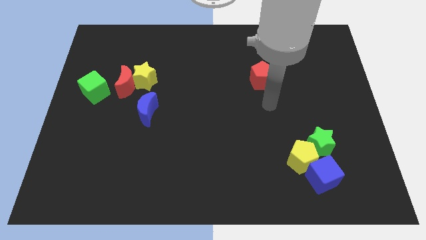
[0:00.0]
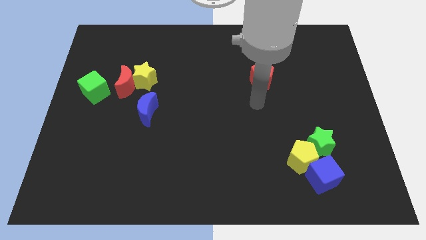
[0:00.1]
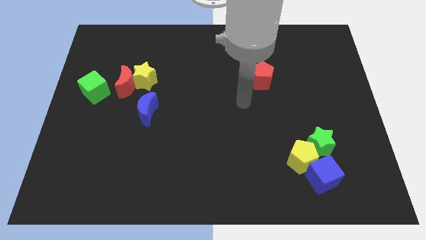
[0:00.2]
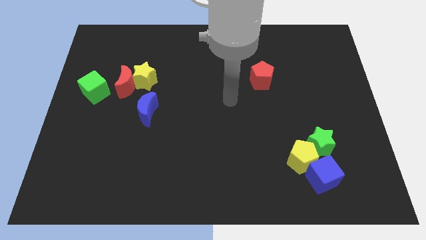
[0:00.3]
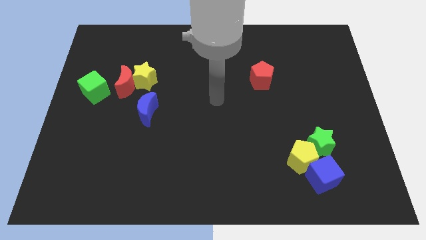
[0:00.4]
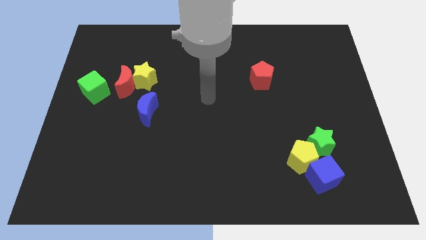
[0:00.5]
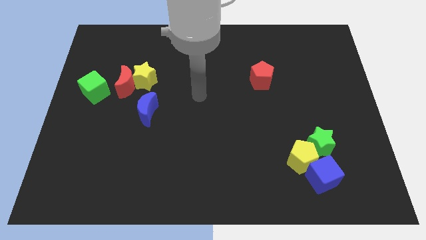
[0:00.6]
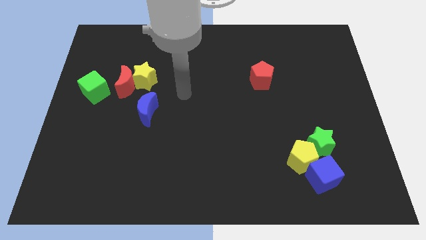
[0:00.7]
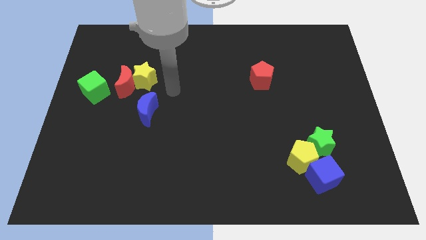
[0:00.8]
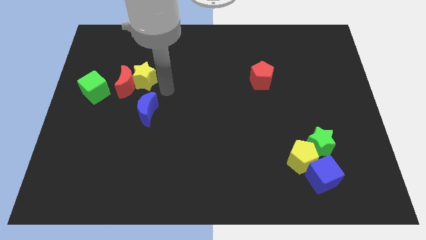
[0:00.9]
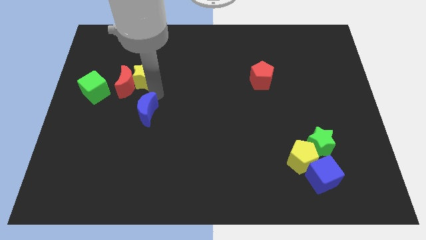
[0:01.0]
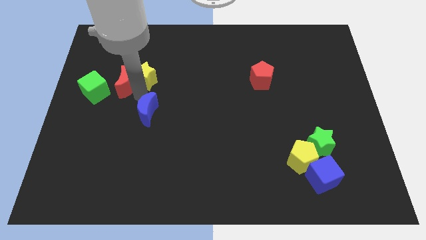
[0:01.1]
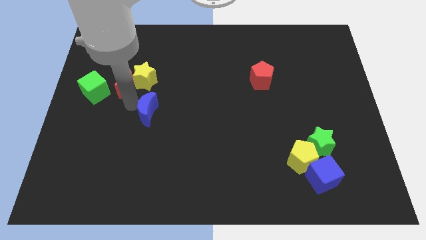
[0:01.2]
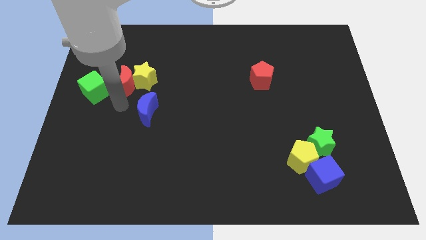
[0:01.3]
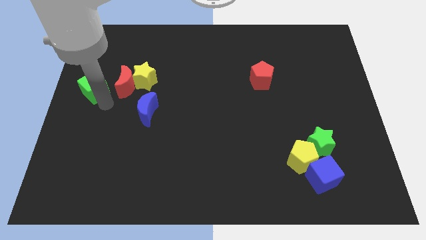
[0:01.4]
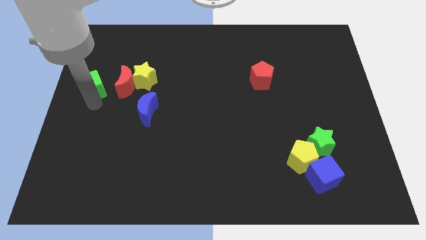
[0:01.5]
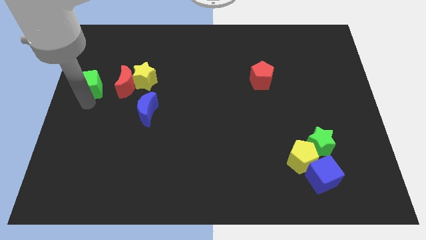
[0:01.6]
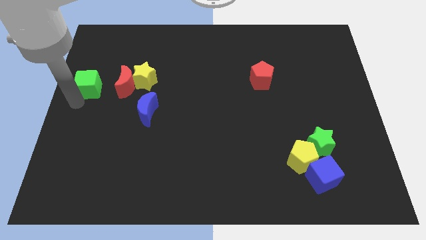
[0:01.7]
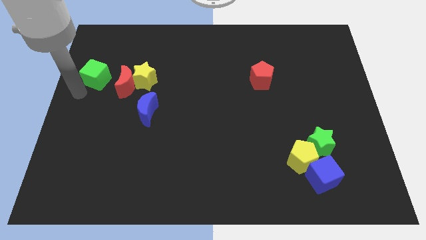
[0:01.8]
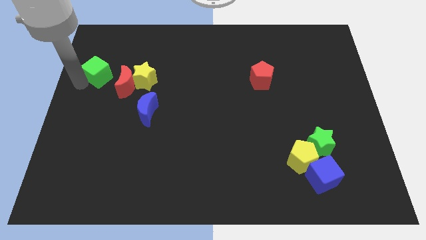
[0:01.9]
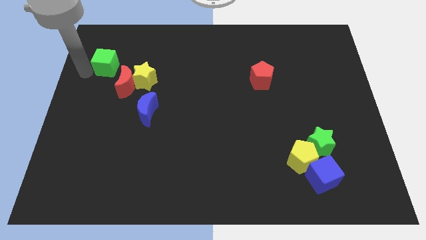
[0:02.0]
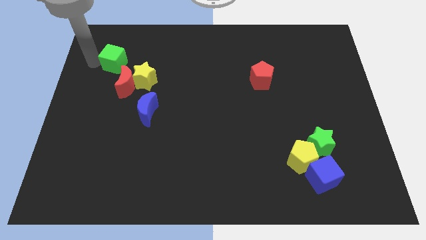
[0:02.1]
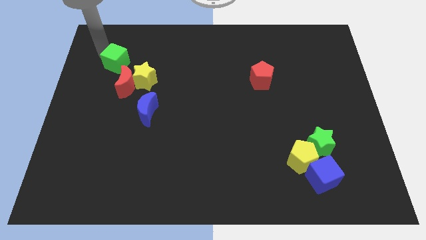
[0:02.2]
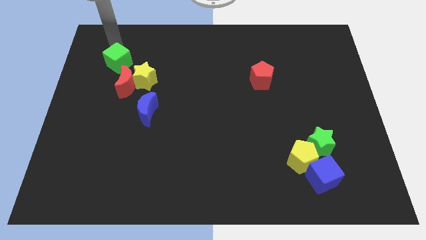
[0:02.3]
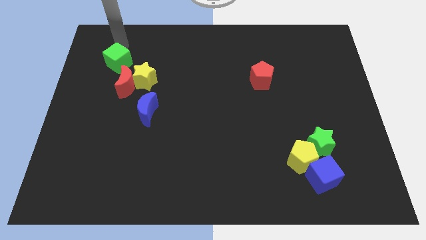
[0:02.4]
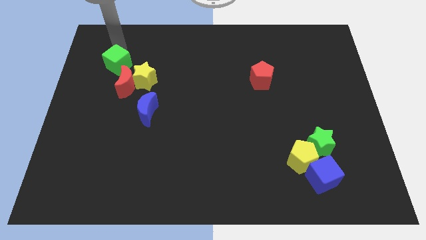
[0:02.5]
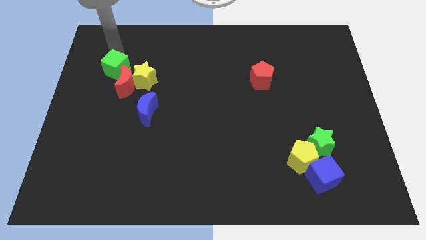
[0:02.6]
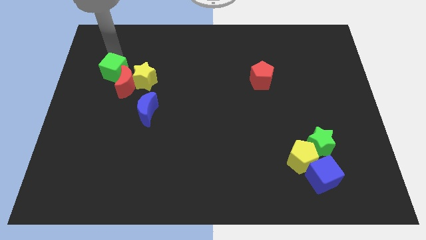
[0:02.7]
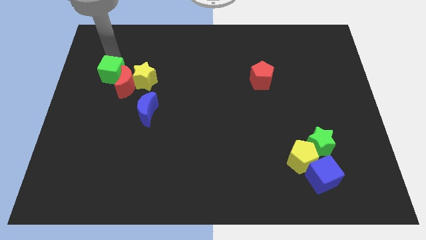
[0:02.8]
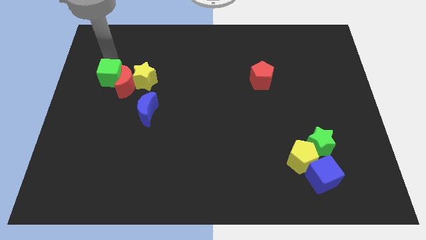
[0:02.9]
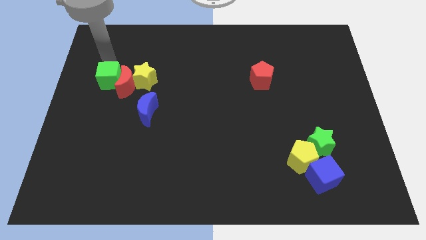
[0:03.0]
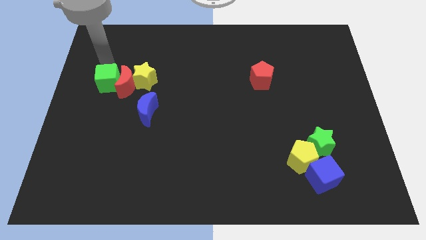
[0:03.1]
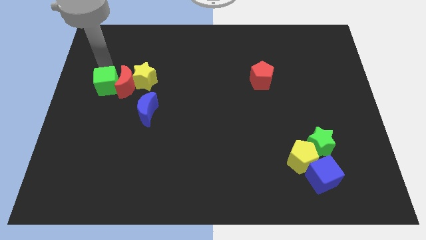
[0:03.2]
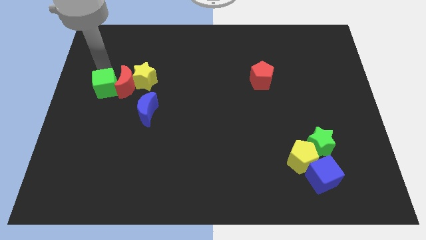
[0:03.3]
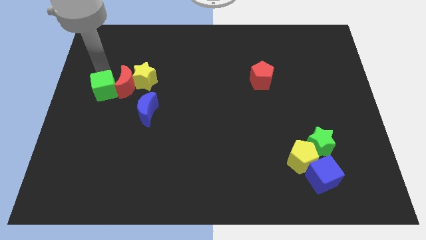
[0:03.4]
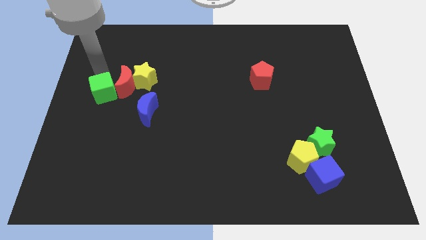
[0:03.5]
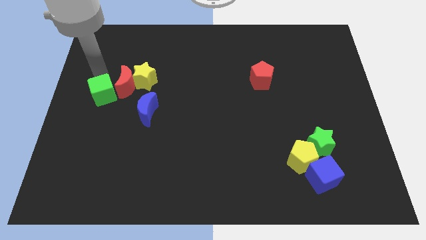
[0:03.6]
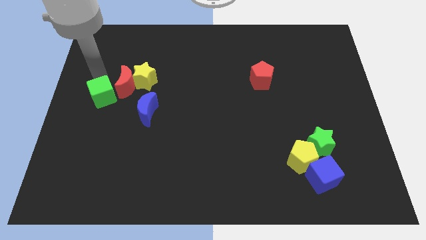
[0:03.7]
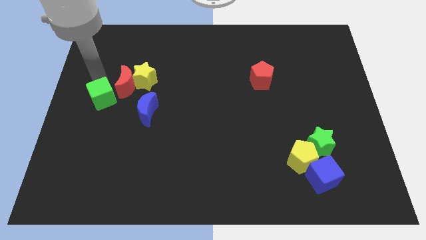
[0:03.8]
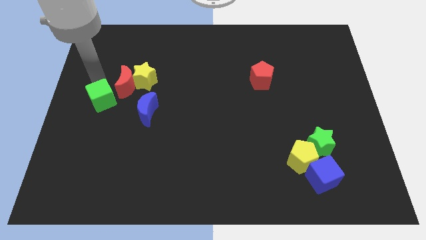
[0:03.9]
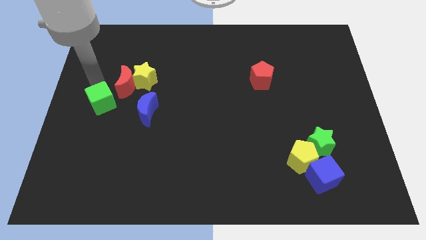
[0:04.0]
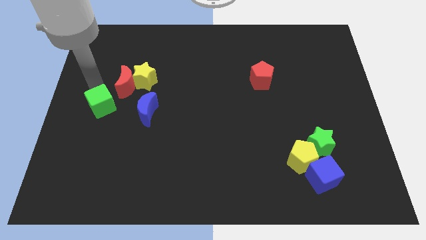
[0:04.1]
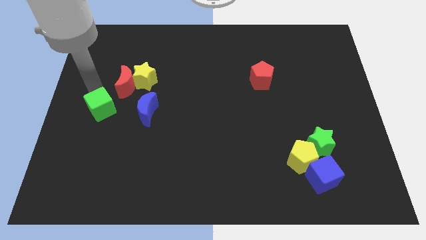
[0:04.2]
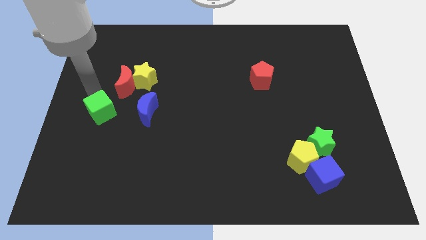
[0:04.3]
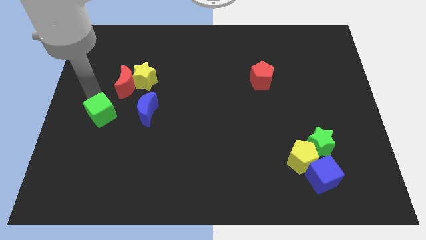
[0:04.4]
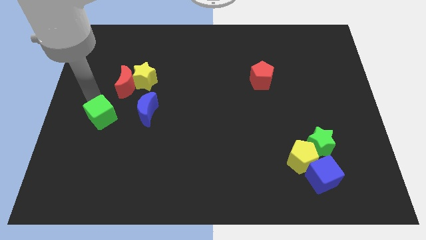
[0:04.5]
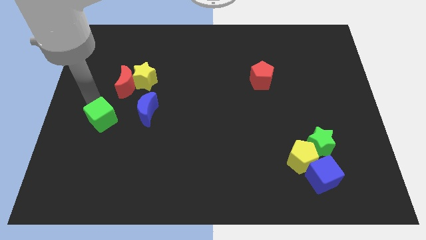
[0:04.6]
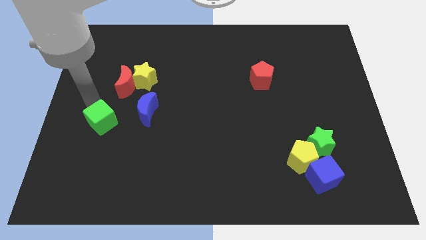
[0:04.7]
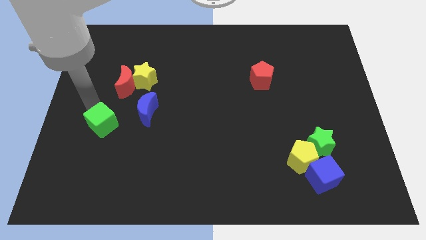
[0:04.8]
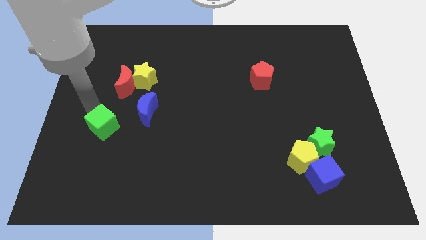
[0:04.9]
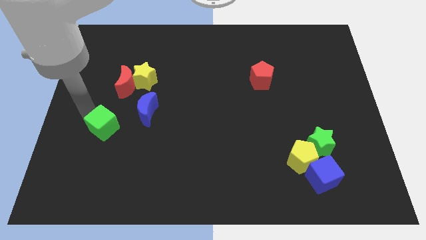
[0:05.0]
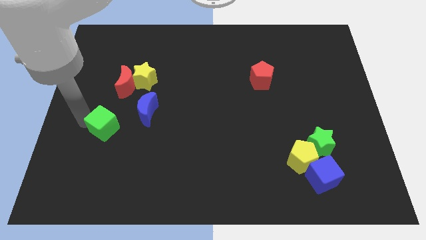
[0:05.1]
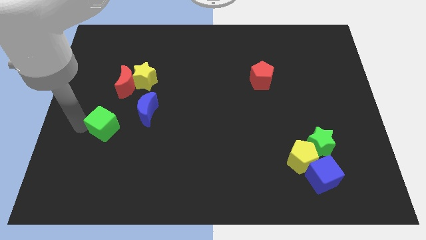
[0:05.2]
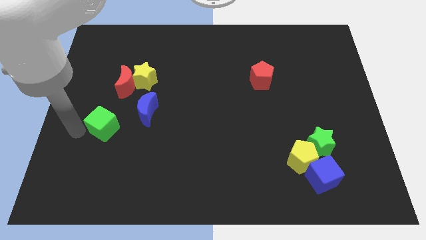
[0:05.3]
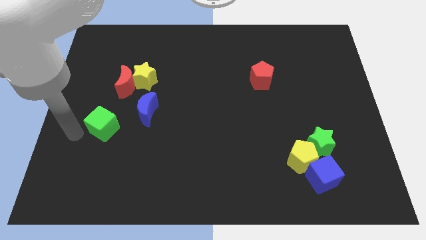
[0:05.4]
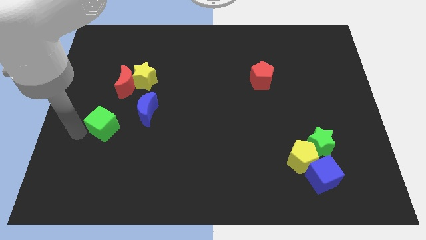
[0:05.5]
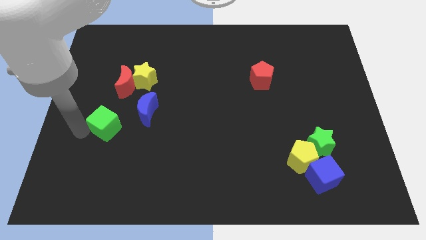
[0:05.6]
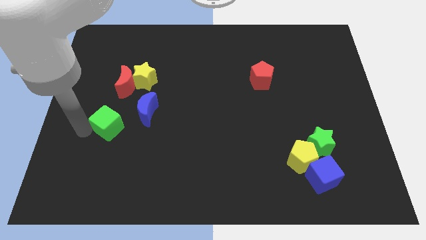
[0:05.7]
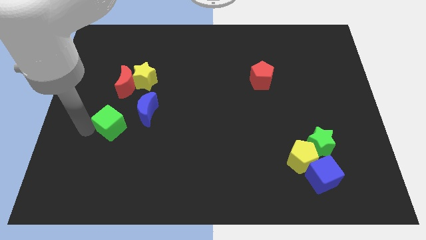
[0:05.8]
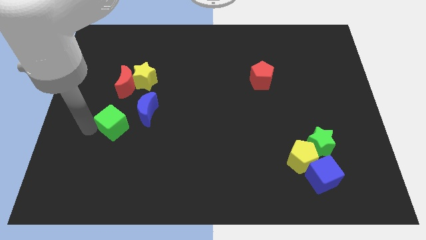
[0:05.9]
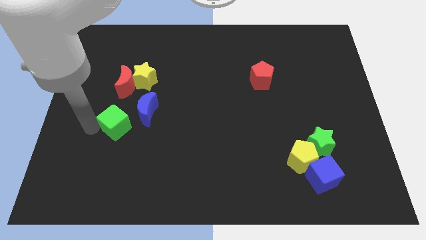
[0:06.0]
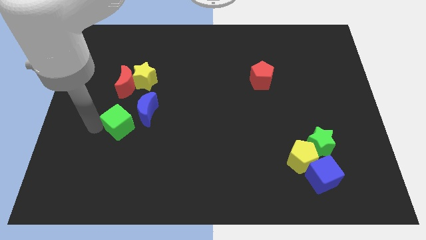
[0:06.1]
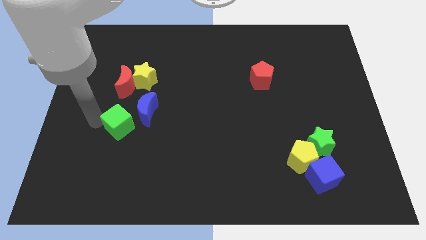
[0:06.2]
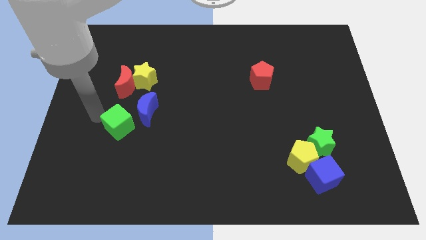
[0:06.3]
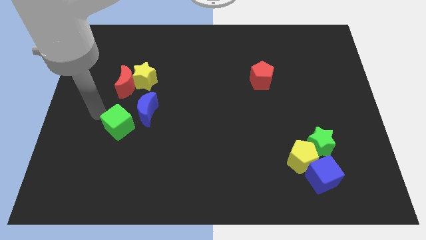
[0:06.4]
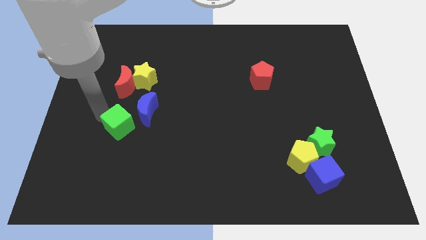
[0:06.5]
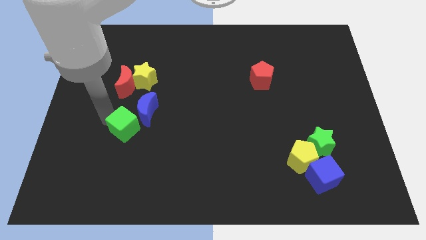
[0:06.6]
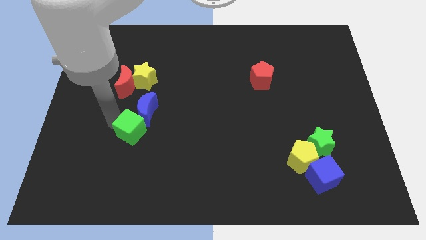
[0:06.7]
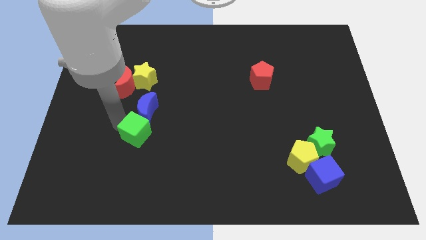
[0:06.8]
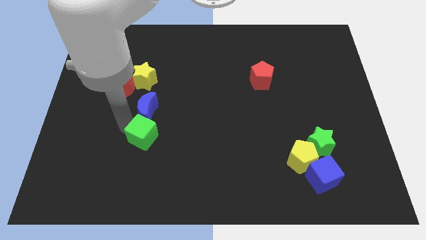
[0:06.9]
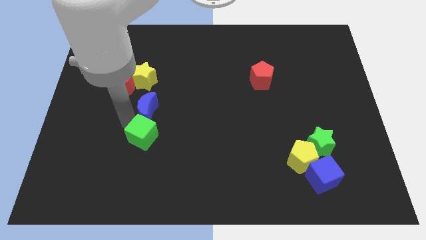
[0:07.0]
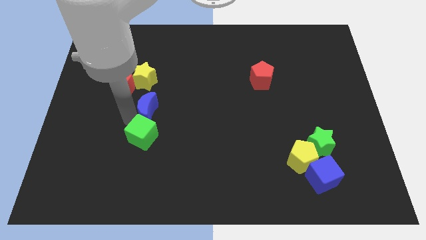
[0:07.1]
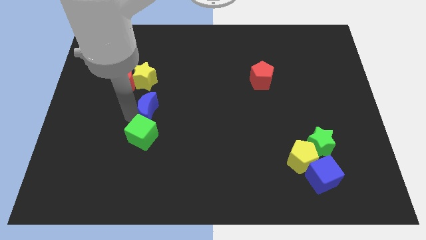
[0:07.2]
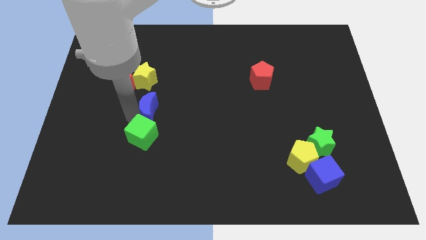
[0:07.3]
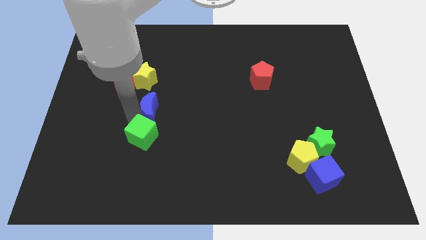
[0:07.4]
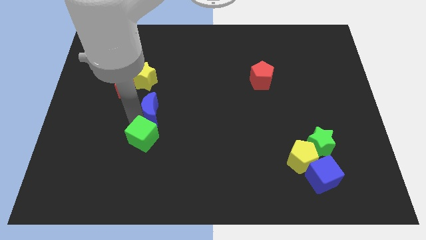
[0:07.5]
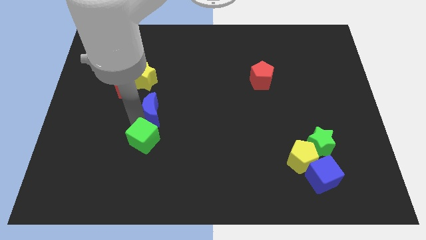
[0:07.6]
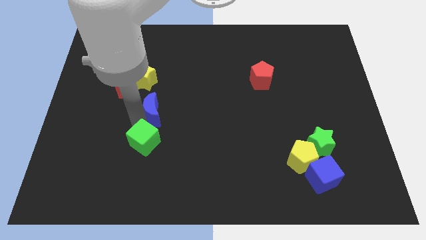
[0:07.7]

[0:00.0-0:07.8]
slide the green cube down and right
